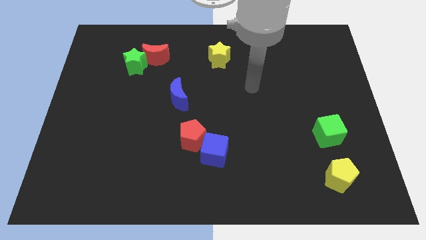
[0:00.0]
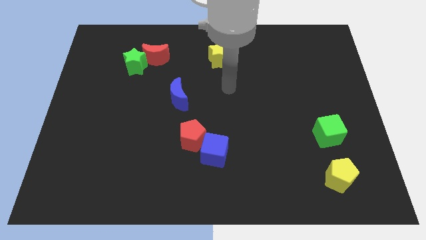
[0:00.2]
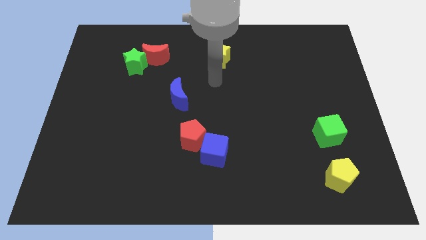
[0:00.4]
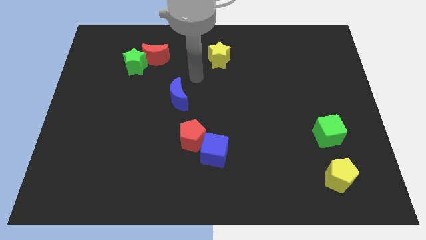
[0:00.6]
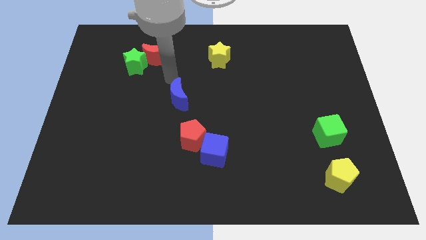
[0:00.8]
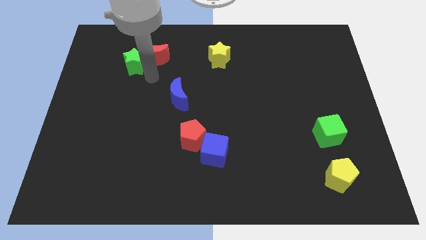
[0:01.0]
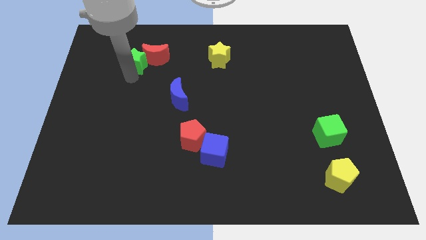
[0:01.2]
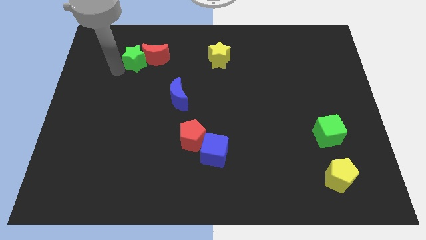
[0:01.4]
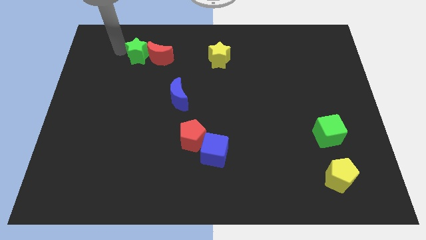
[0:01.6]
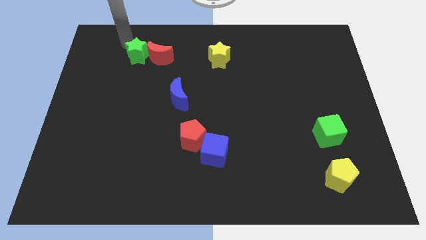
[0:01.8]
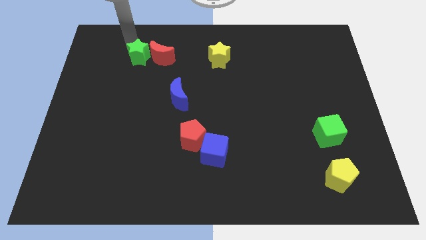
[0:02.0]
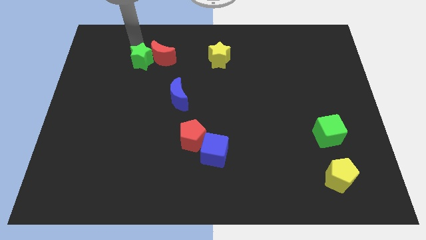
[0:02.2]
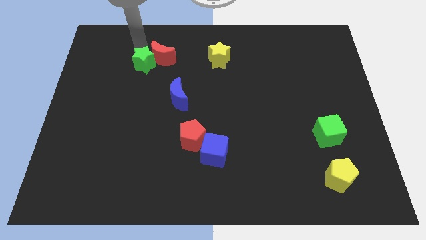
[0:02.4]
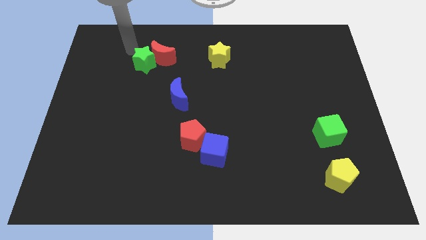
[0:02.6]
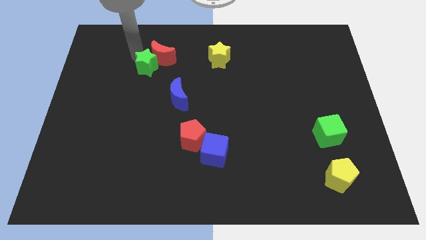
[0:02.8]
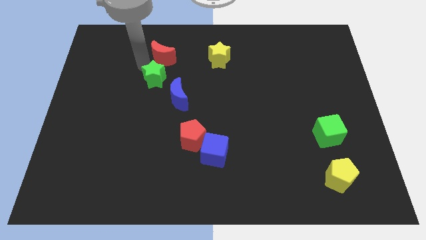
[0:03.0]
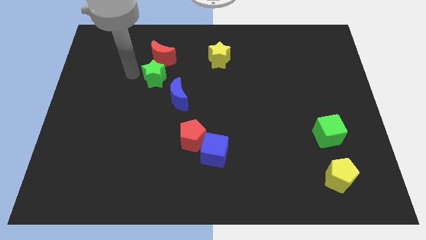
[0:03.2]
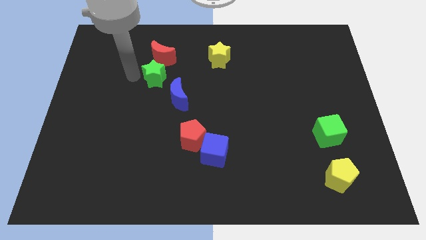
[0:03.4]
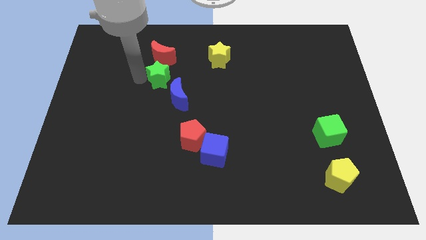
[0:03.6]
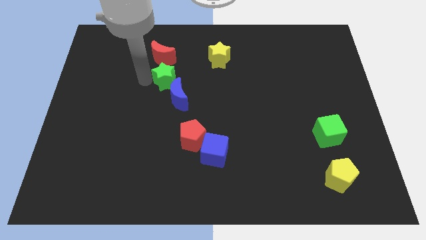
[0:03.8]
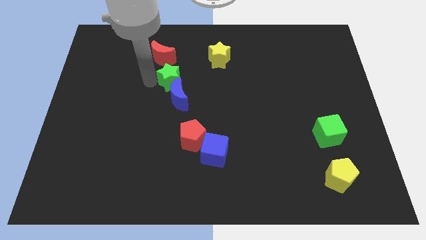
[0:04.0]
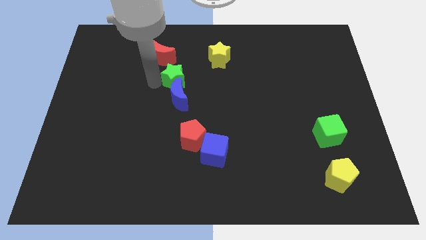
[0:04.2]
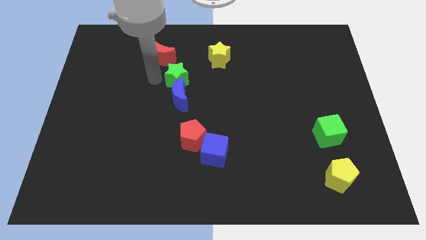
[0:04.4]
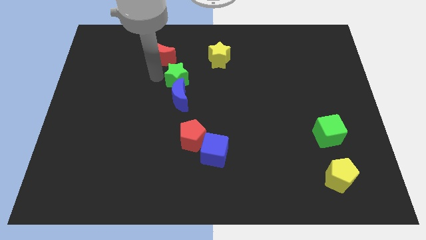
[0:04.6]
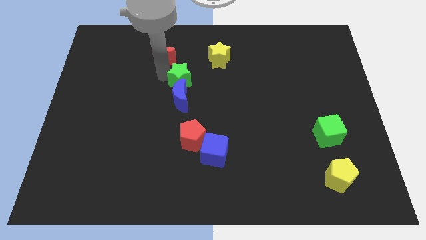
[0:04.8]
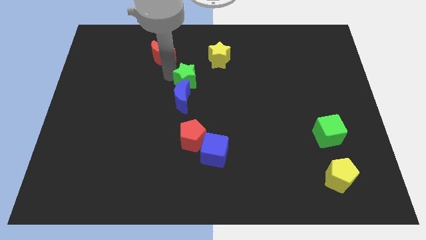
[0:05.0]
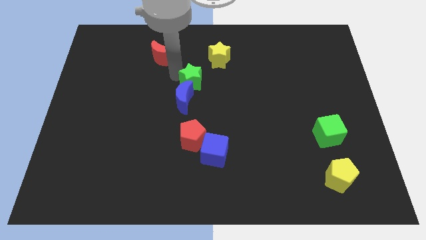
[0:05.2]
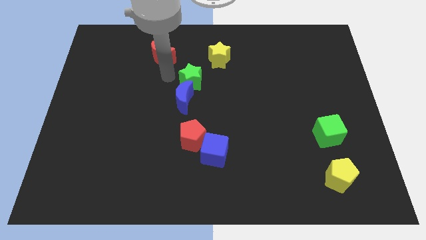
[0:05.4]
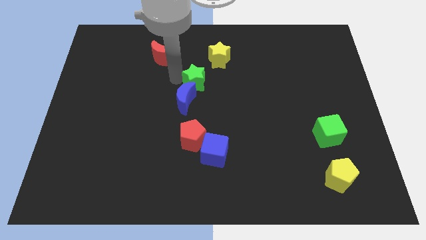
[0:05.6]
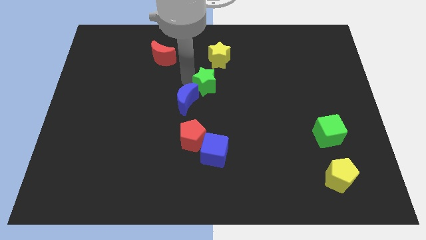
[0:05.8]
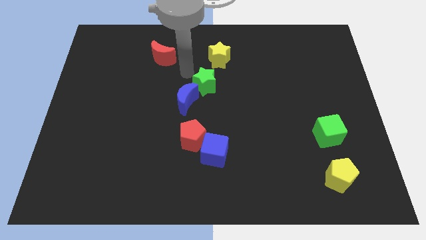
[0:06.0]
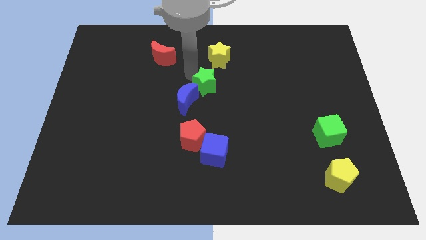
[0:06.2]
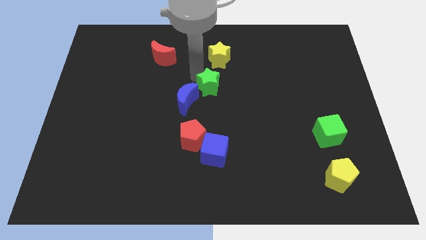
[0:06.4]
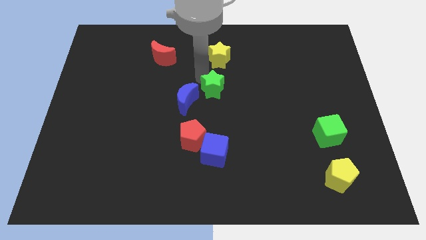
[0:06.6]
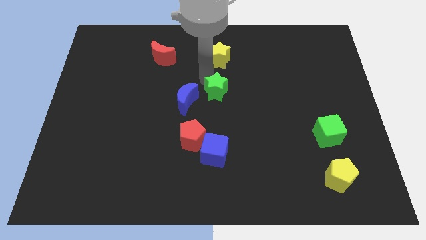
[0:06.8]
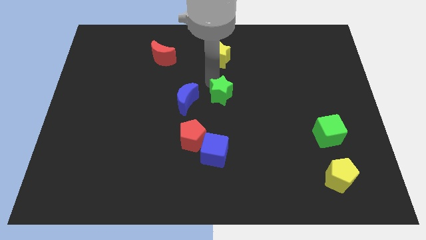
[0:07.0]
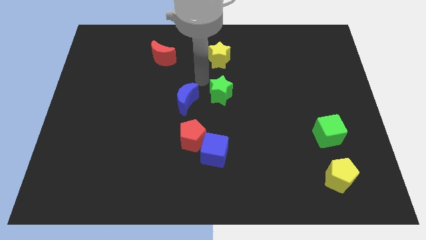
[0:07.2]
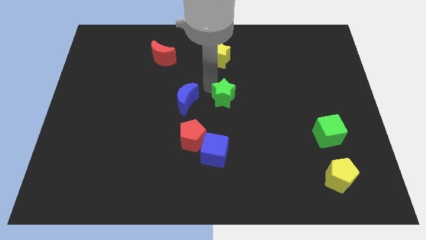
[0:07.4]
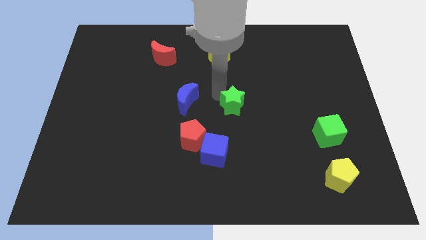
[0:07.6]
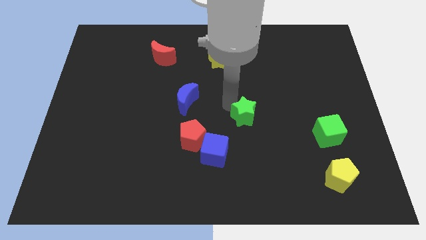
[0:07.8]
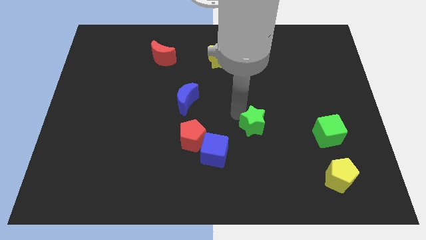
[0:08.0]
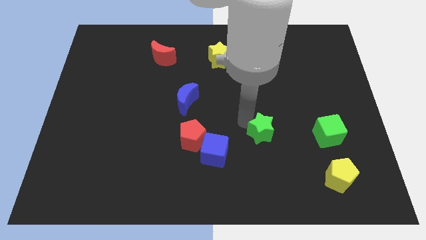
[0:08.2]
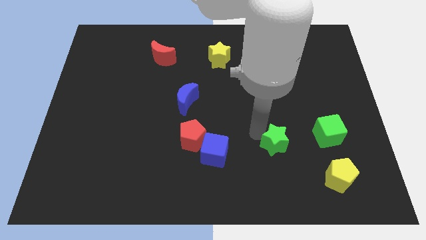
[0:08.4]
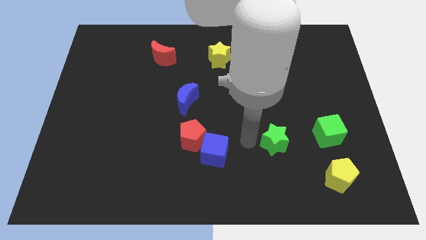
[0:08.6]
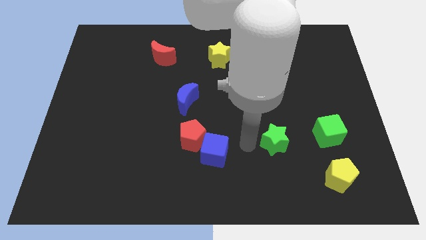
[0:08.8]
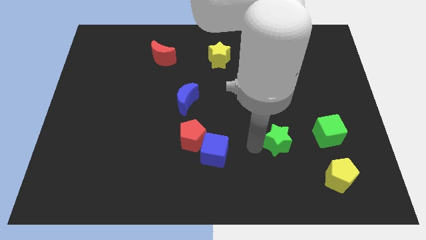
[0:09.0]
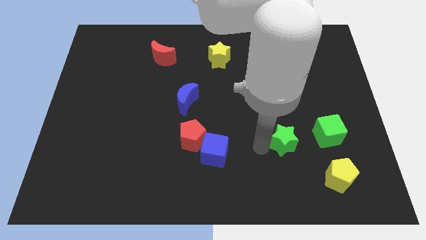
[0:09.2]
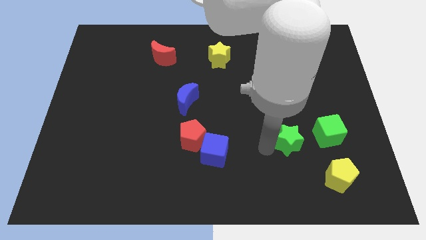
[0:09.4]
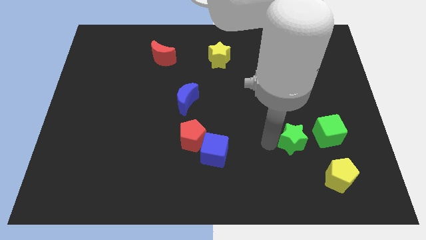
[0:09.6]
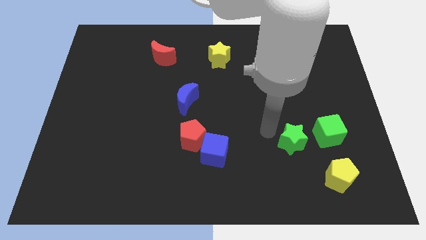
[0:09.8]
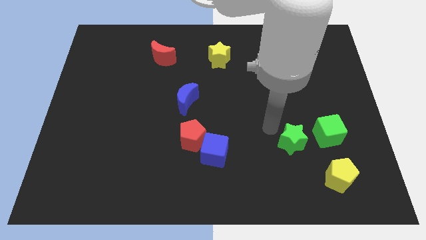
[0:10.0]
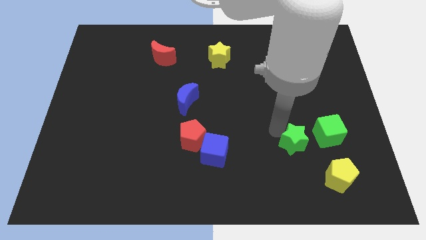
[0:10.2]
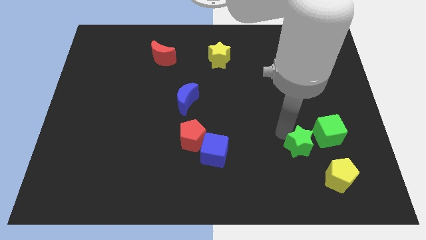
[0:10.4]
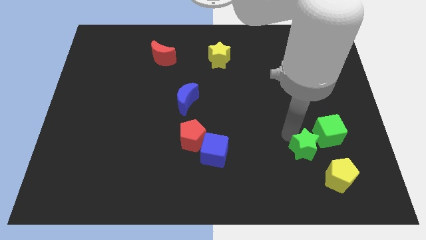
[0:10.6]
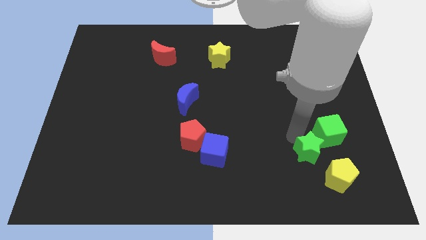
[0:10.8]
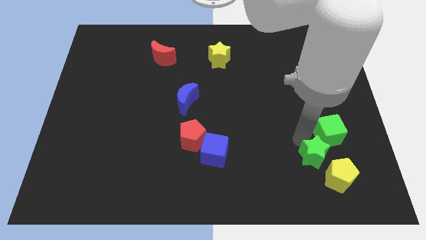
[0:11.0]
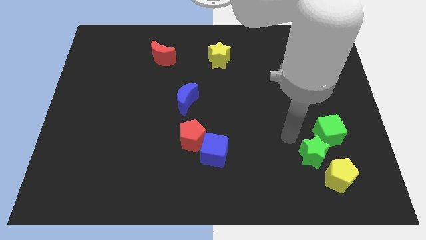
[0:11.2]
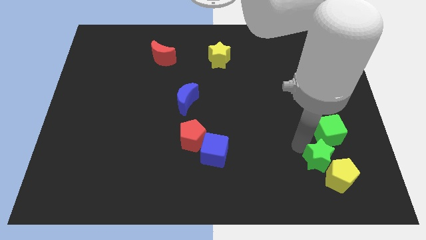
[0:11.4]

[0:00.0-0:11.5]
slide the green star close to the yellow pentagon

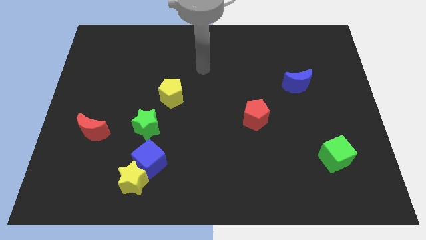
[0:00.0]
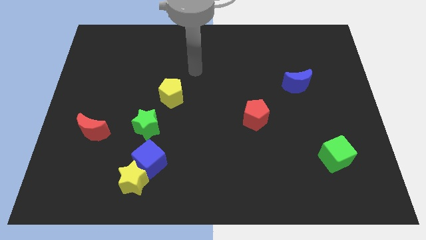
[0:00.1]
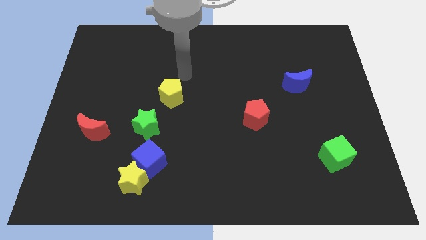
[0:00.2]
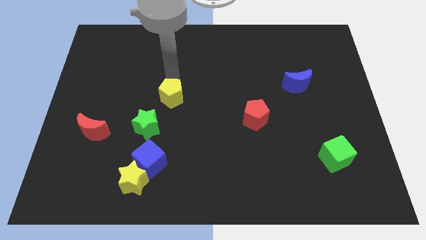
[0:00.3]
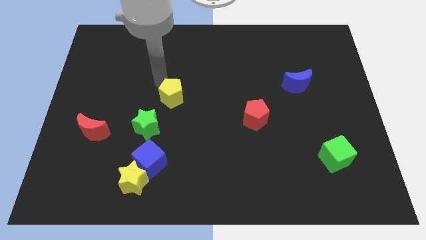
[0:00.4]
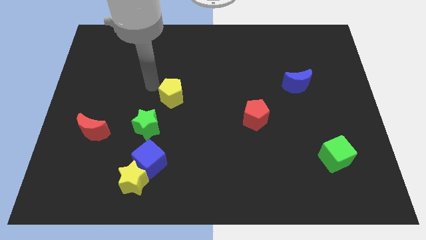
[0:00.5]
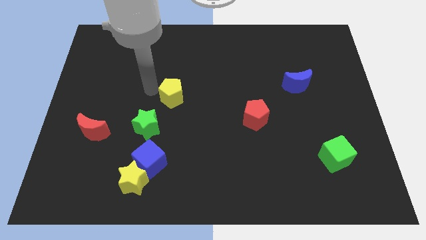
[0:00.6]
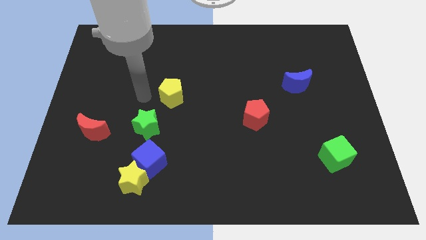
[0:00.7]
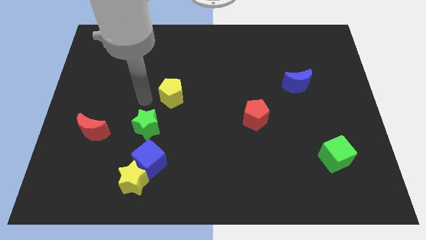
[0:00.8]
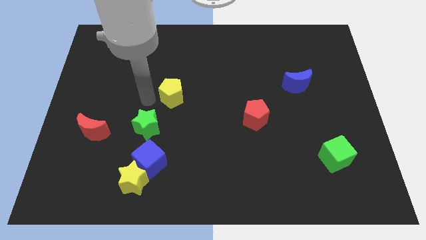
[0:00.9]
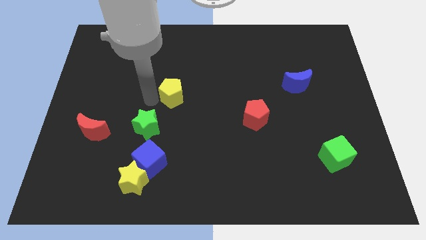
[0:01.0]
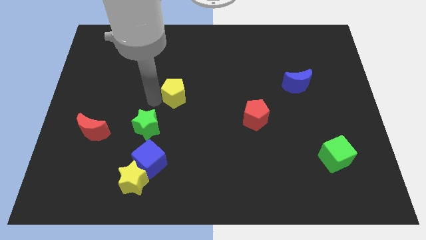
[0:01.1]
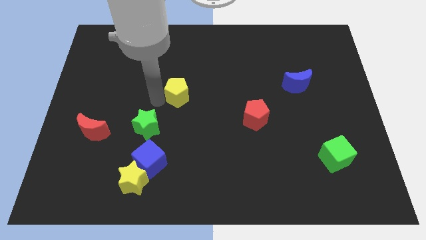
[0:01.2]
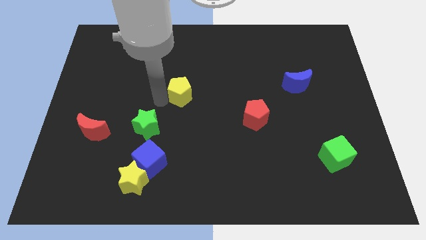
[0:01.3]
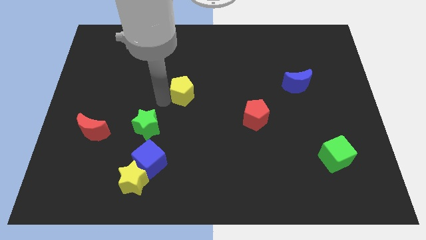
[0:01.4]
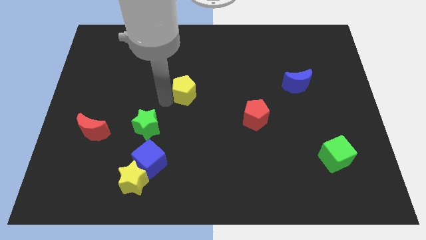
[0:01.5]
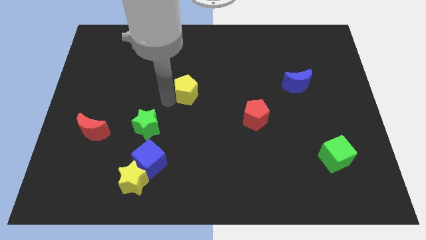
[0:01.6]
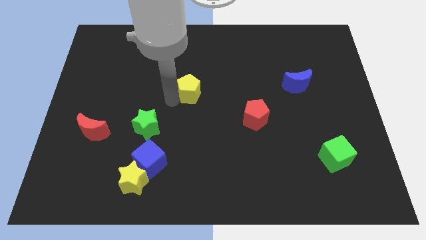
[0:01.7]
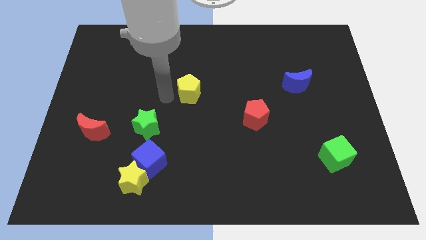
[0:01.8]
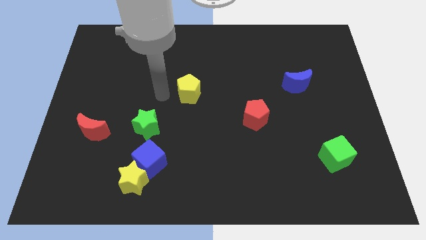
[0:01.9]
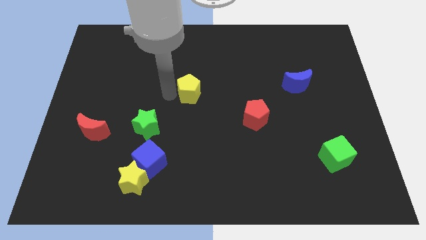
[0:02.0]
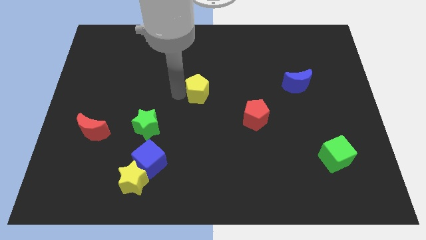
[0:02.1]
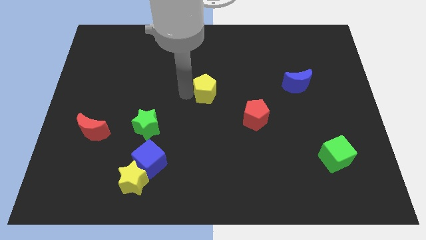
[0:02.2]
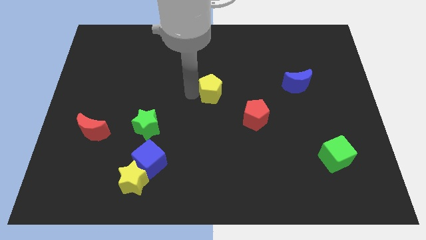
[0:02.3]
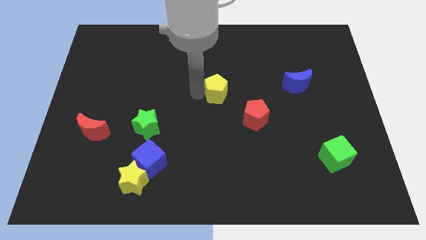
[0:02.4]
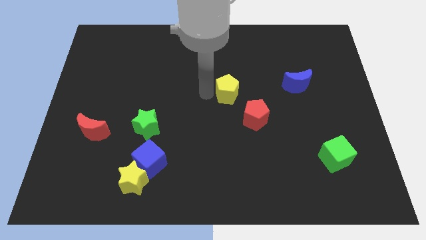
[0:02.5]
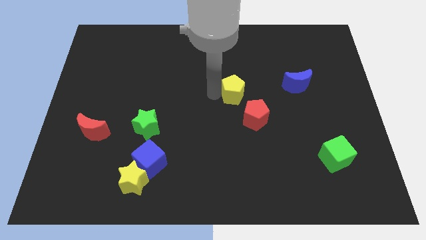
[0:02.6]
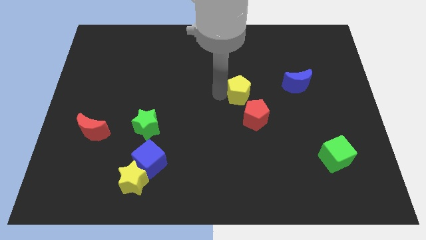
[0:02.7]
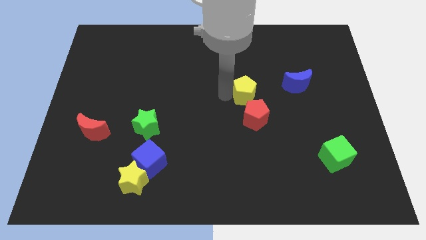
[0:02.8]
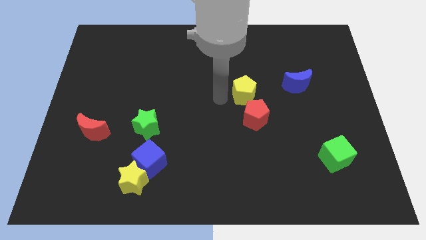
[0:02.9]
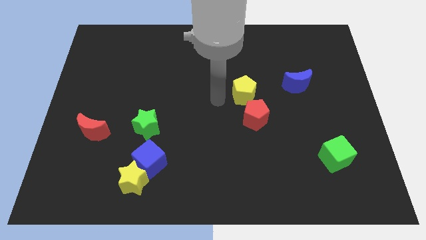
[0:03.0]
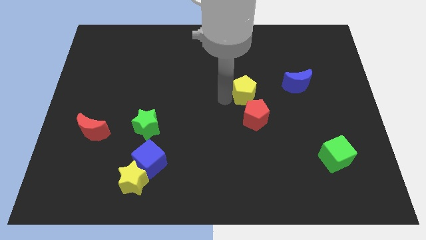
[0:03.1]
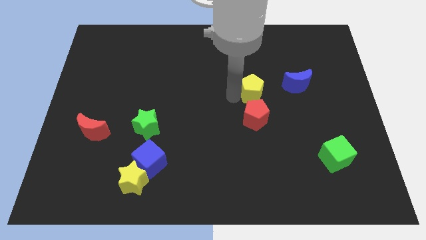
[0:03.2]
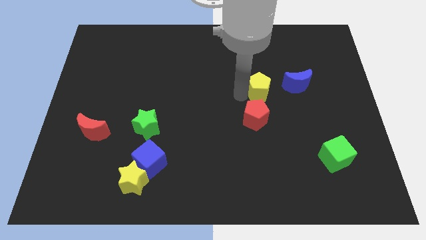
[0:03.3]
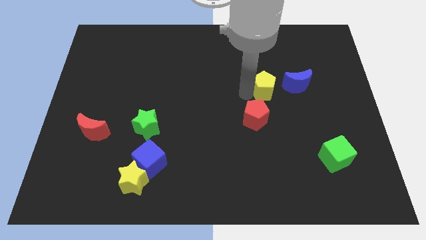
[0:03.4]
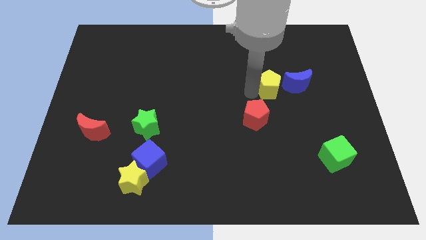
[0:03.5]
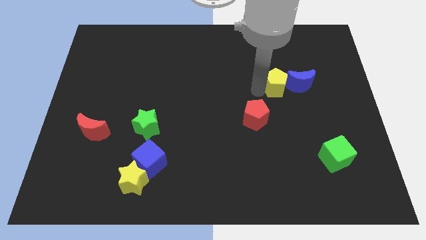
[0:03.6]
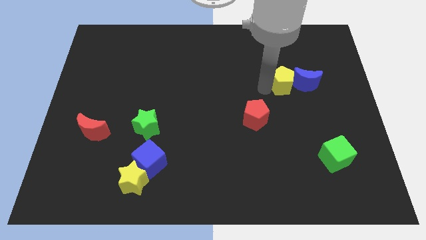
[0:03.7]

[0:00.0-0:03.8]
slide the yellow pentagon close to the blue moon
